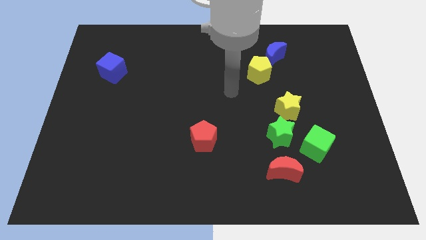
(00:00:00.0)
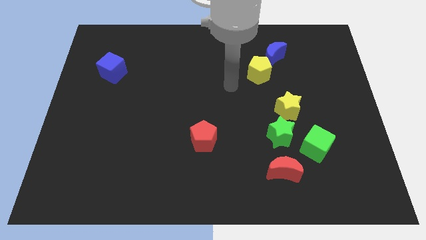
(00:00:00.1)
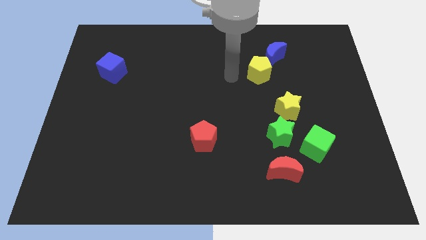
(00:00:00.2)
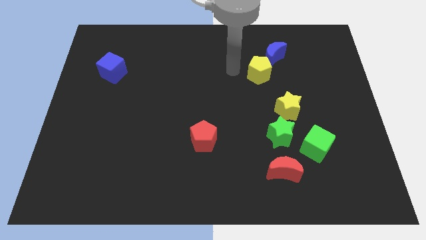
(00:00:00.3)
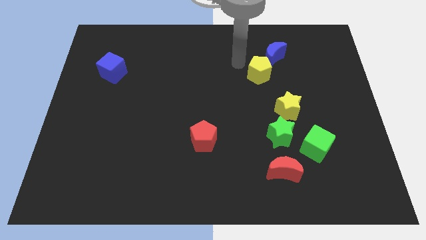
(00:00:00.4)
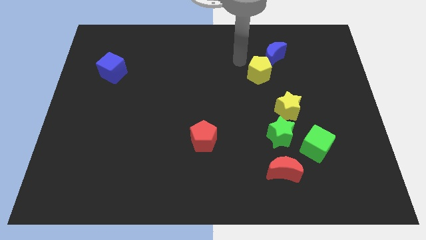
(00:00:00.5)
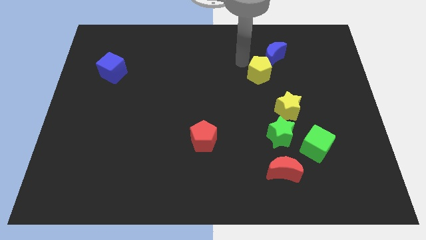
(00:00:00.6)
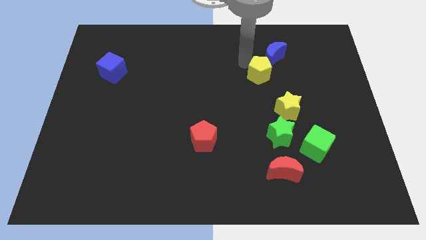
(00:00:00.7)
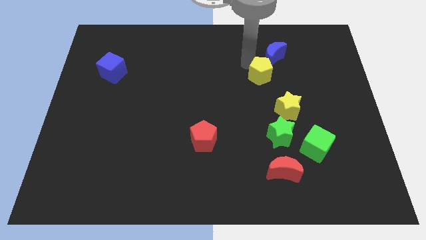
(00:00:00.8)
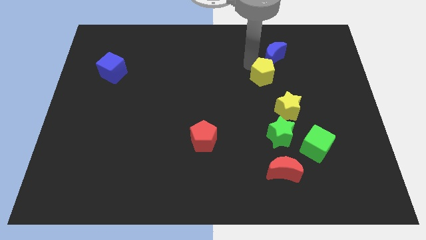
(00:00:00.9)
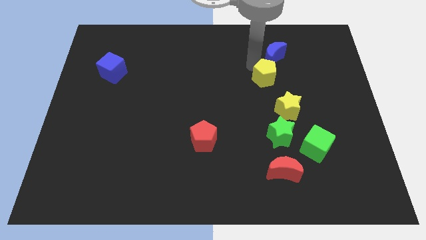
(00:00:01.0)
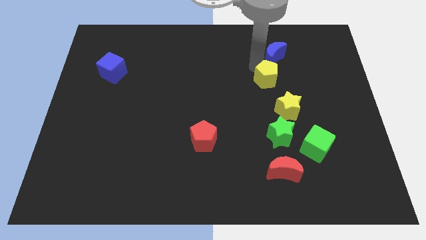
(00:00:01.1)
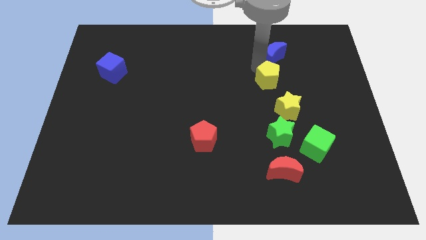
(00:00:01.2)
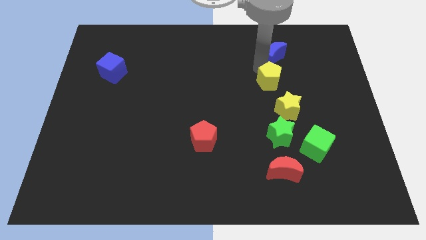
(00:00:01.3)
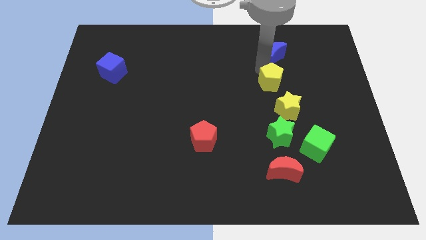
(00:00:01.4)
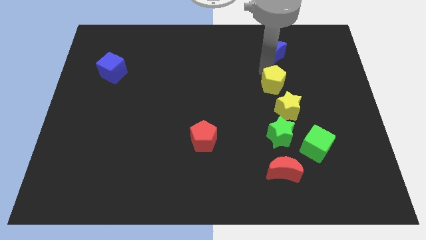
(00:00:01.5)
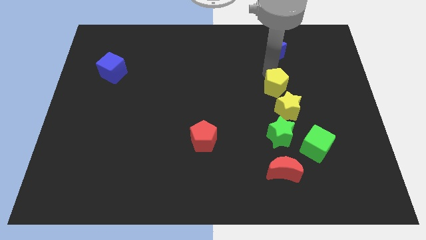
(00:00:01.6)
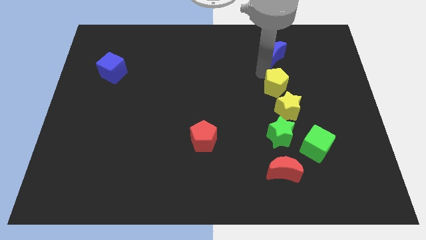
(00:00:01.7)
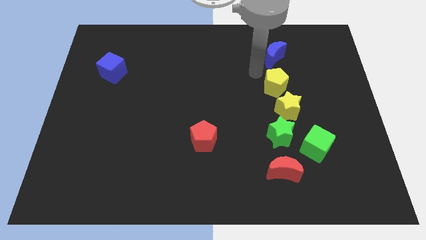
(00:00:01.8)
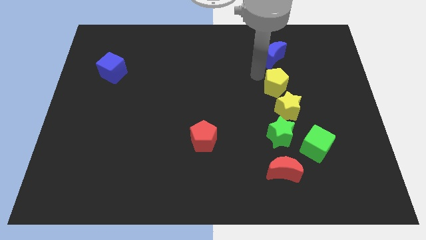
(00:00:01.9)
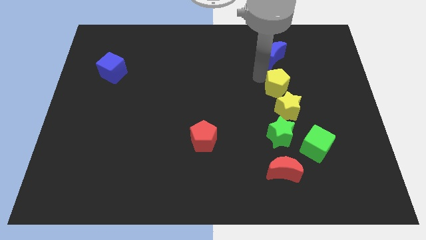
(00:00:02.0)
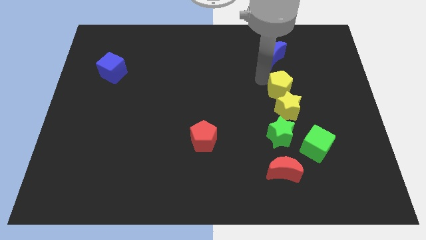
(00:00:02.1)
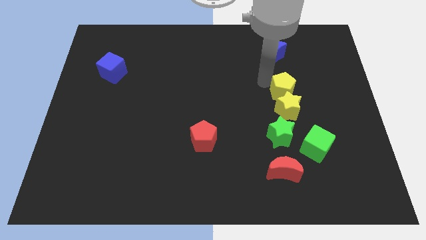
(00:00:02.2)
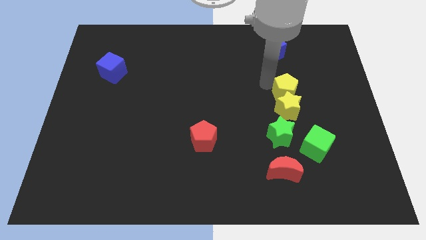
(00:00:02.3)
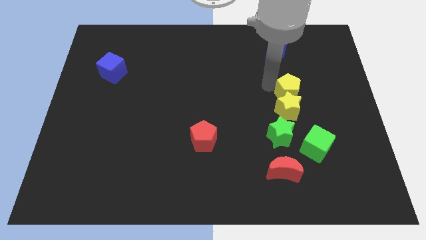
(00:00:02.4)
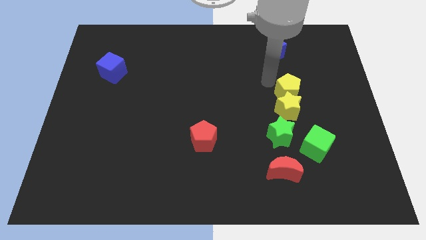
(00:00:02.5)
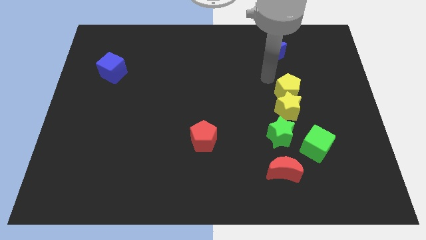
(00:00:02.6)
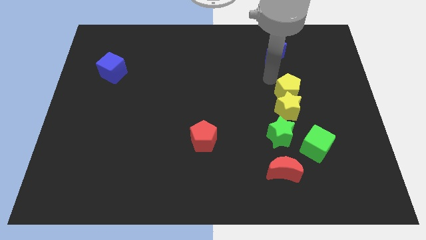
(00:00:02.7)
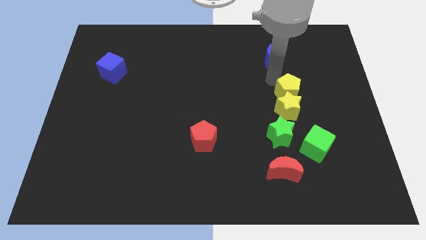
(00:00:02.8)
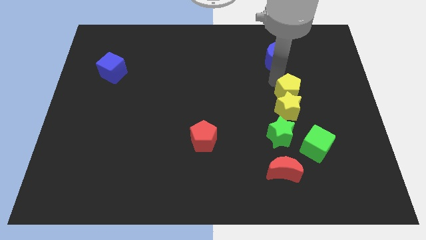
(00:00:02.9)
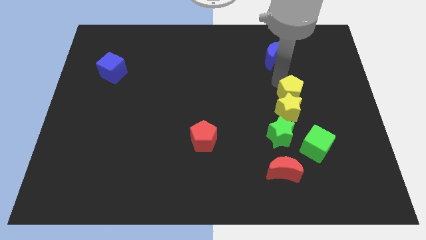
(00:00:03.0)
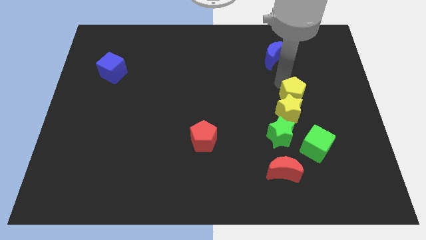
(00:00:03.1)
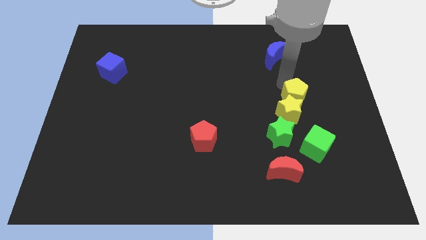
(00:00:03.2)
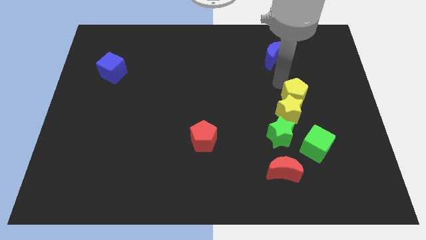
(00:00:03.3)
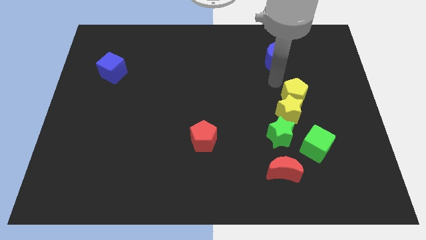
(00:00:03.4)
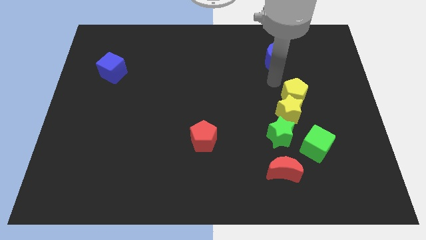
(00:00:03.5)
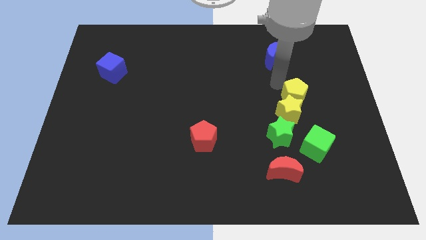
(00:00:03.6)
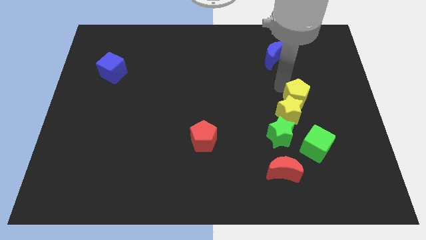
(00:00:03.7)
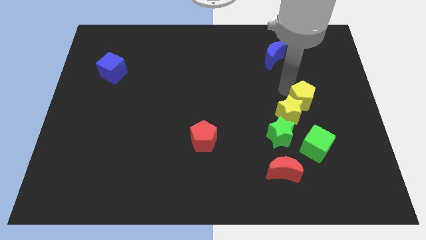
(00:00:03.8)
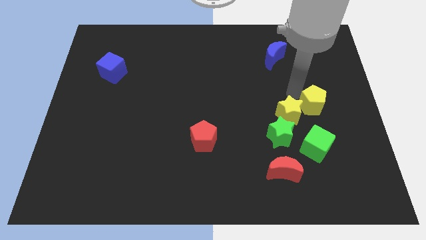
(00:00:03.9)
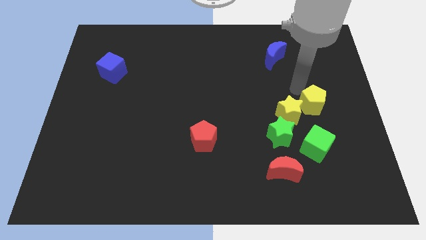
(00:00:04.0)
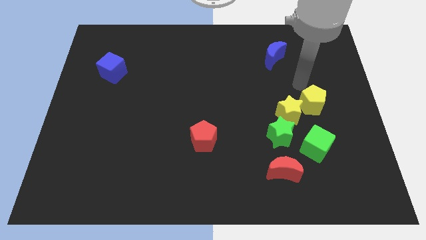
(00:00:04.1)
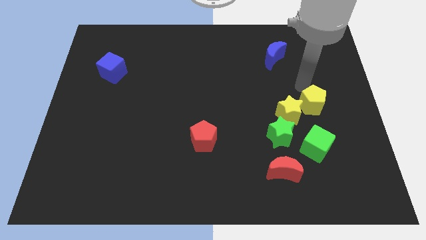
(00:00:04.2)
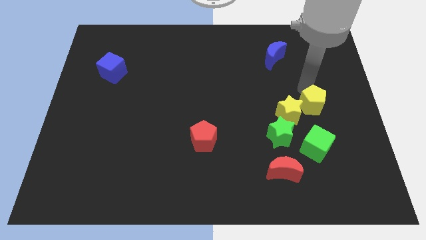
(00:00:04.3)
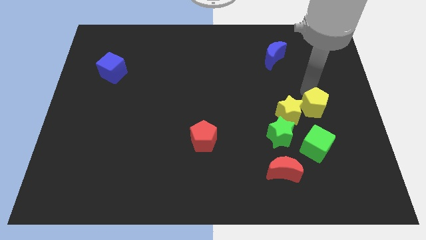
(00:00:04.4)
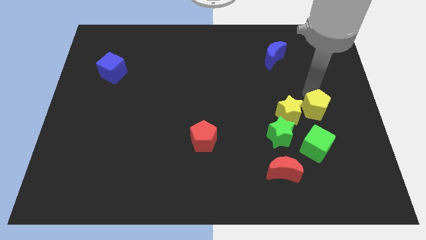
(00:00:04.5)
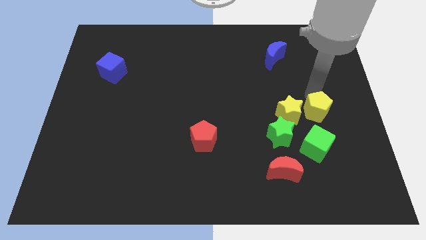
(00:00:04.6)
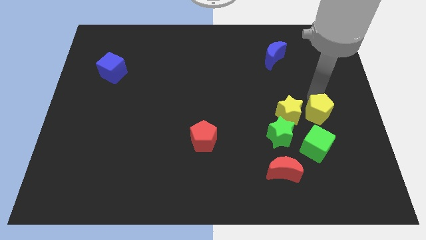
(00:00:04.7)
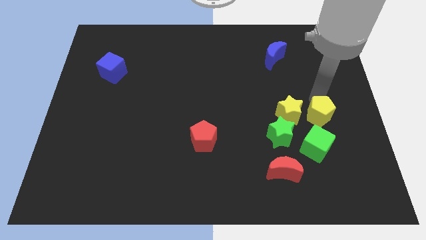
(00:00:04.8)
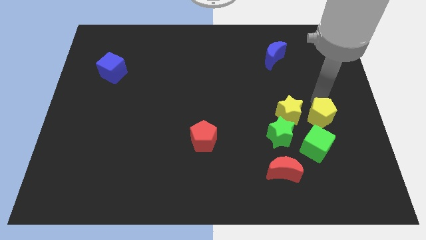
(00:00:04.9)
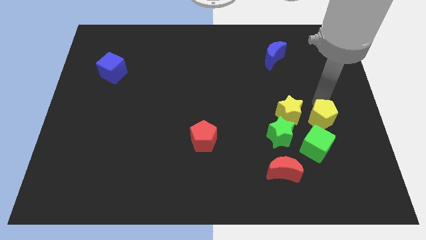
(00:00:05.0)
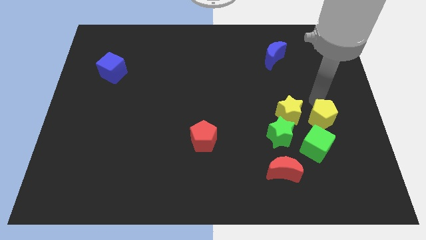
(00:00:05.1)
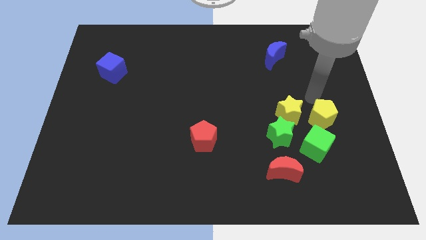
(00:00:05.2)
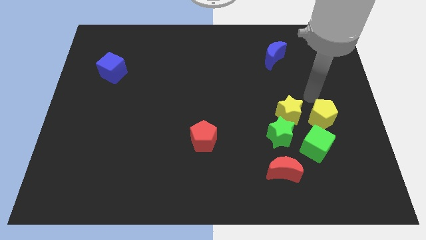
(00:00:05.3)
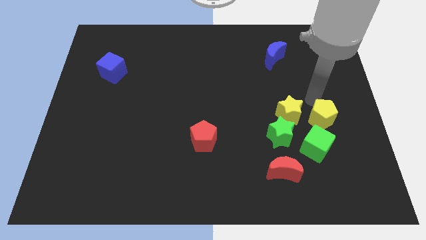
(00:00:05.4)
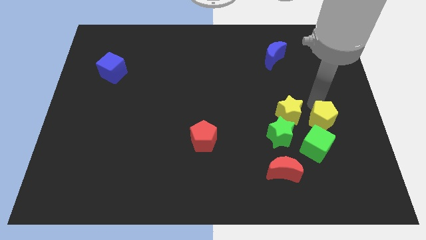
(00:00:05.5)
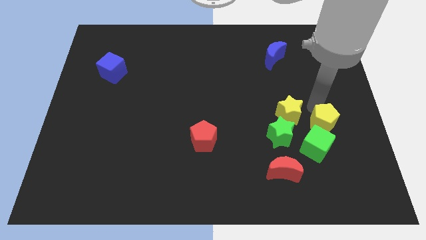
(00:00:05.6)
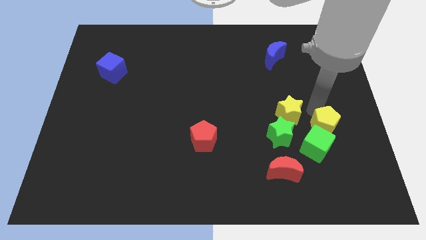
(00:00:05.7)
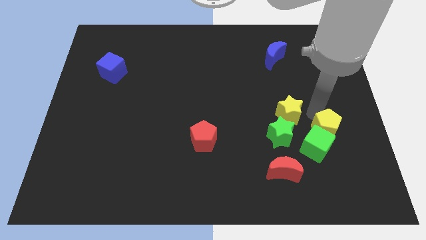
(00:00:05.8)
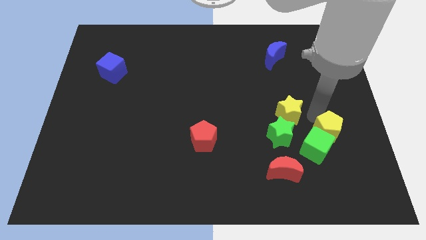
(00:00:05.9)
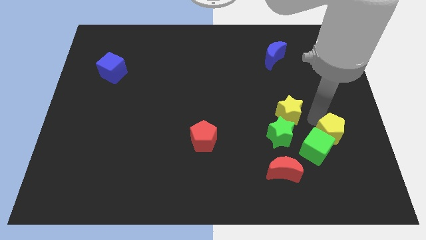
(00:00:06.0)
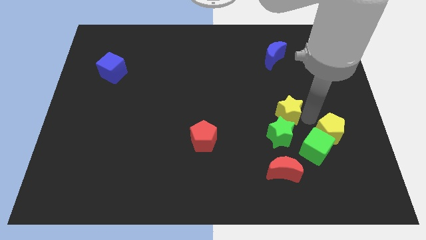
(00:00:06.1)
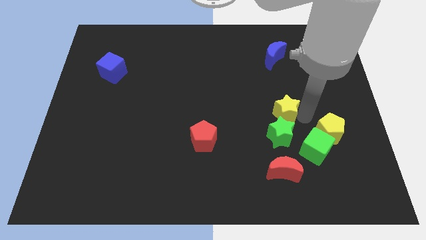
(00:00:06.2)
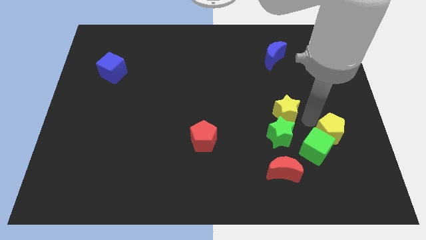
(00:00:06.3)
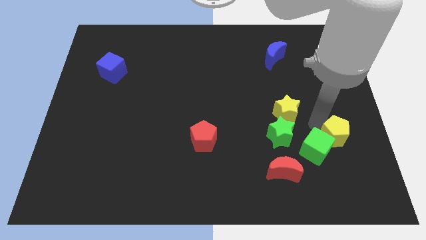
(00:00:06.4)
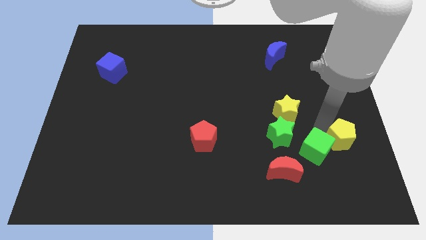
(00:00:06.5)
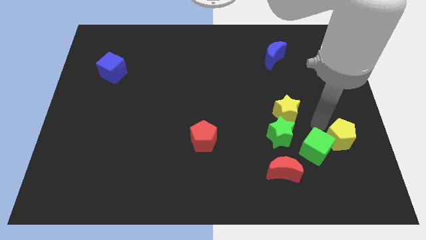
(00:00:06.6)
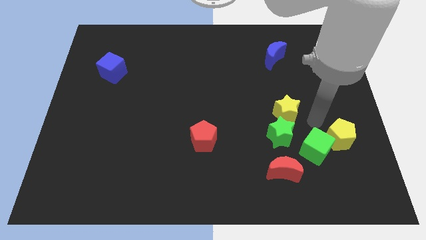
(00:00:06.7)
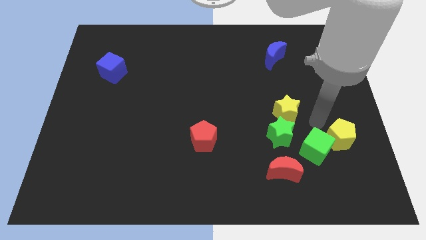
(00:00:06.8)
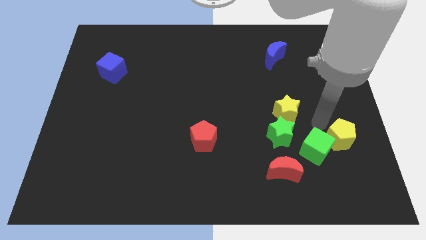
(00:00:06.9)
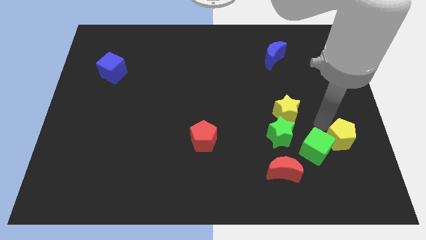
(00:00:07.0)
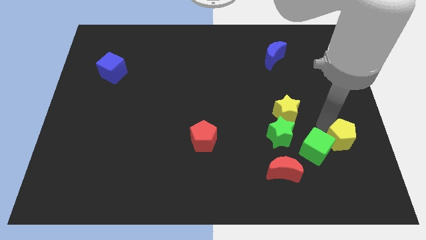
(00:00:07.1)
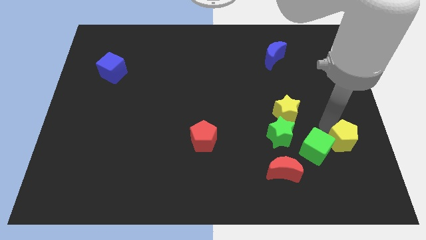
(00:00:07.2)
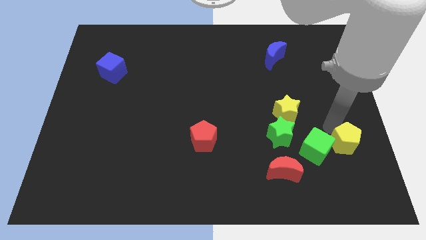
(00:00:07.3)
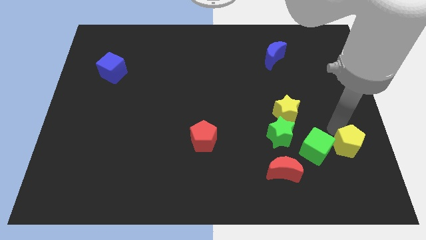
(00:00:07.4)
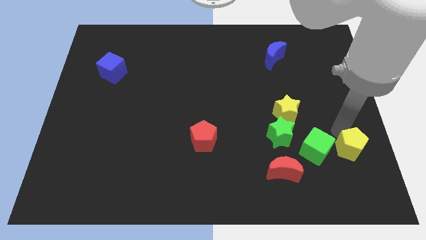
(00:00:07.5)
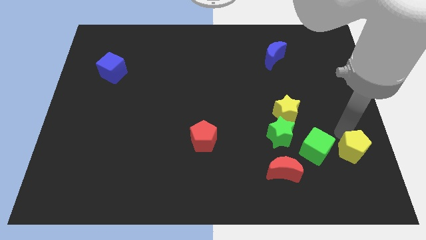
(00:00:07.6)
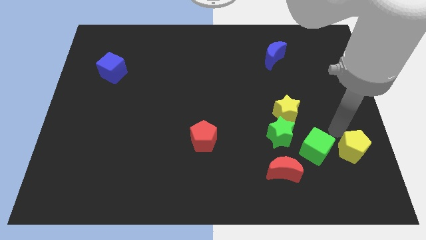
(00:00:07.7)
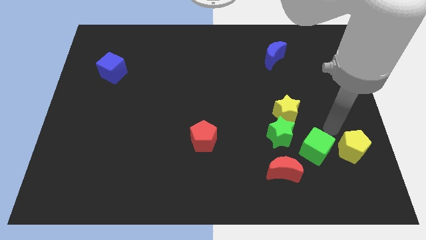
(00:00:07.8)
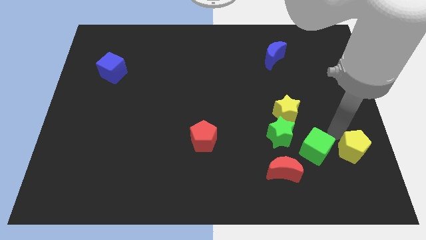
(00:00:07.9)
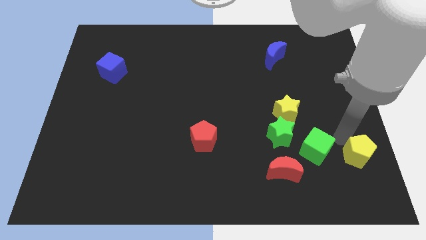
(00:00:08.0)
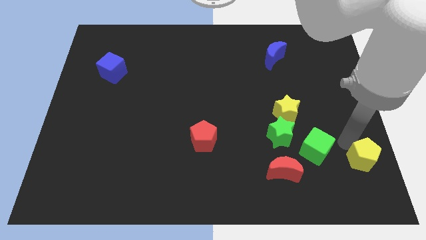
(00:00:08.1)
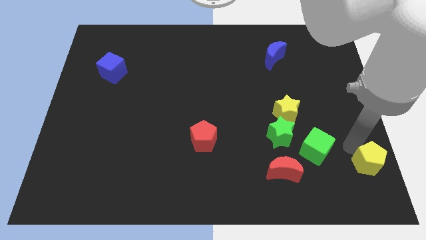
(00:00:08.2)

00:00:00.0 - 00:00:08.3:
slide the yellow pentagon to the lower right corner
